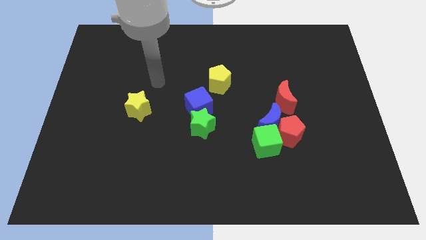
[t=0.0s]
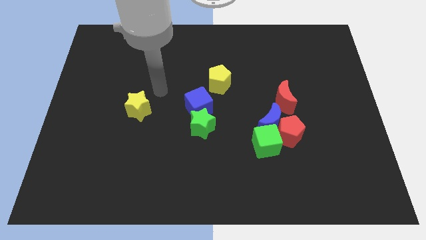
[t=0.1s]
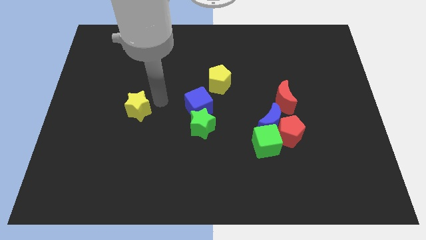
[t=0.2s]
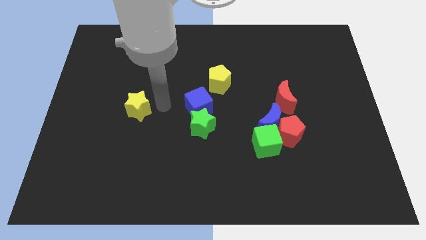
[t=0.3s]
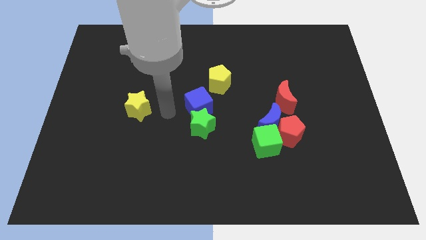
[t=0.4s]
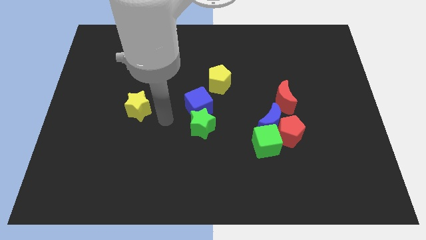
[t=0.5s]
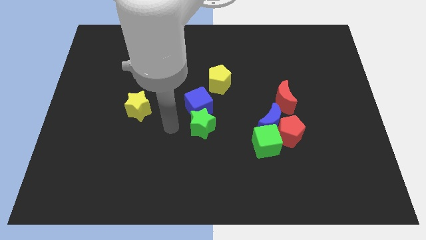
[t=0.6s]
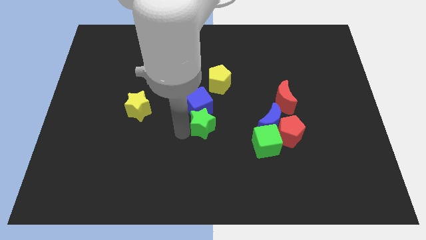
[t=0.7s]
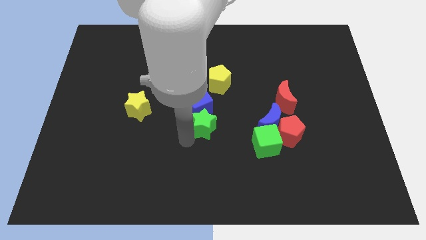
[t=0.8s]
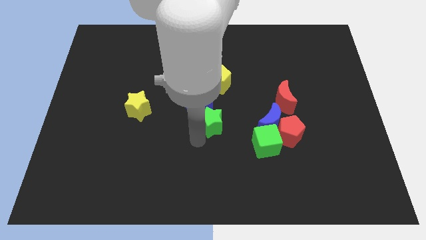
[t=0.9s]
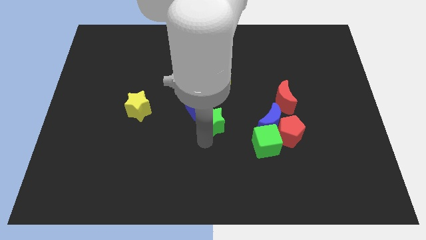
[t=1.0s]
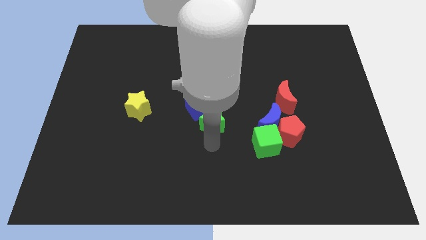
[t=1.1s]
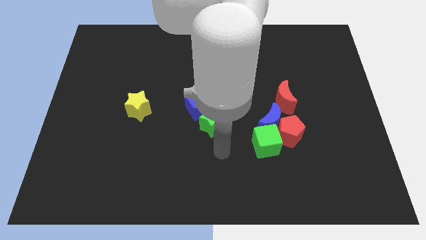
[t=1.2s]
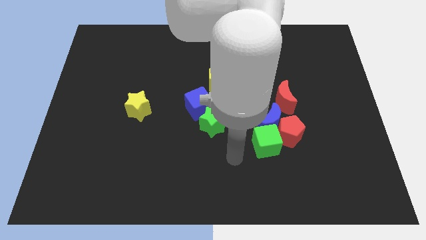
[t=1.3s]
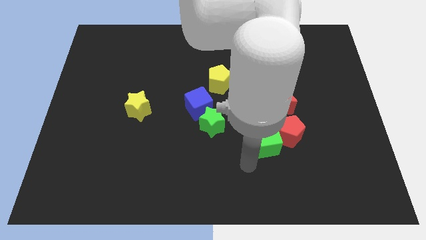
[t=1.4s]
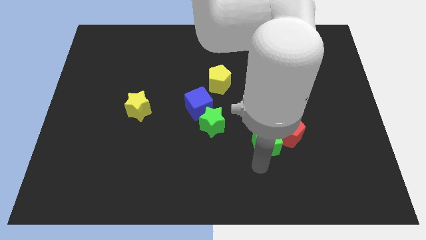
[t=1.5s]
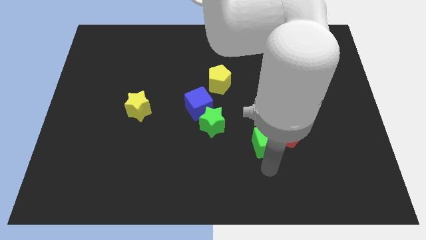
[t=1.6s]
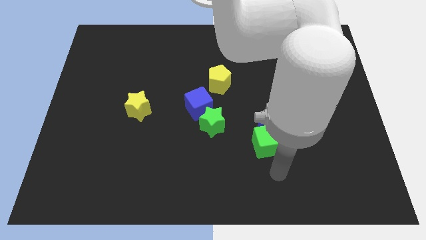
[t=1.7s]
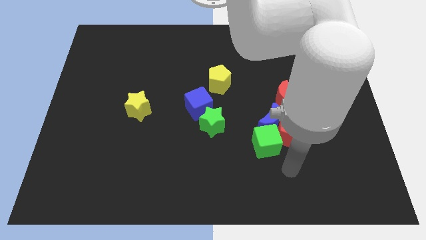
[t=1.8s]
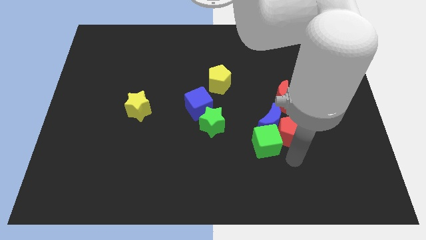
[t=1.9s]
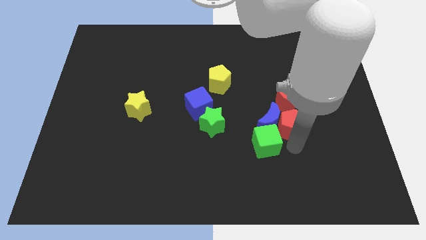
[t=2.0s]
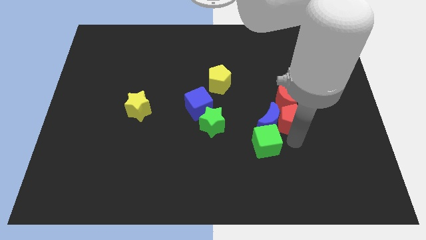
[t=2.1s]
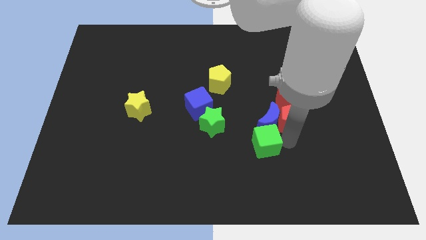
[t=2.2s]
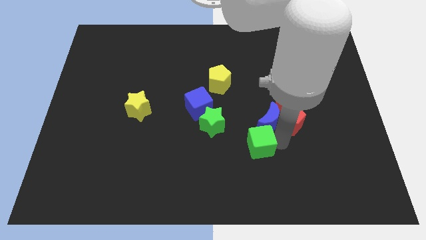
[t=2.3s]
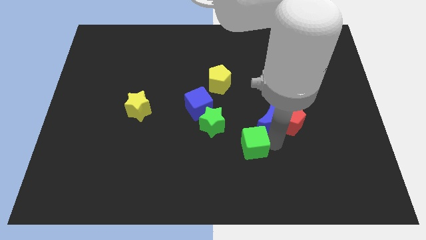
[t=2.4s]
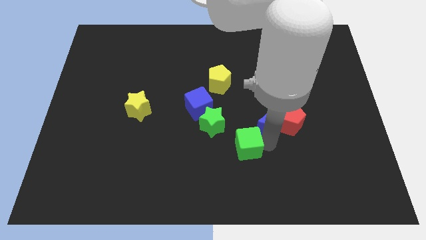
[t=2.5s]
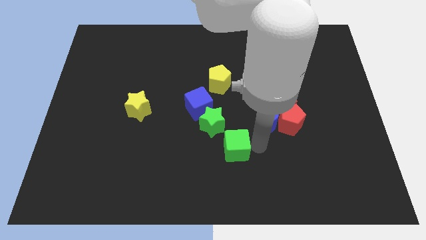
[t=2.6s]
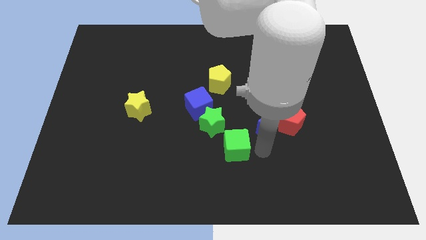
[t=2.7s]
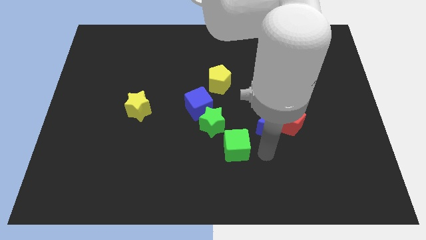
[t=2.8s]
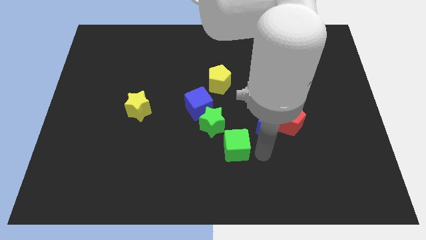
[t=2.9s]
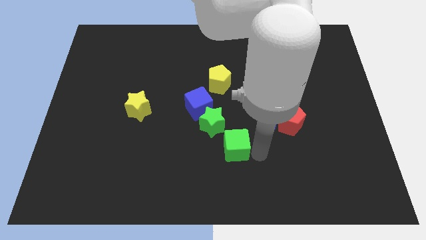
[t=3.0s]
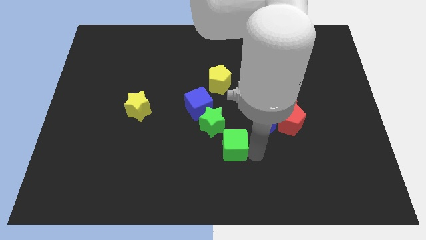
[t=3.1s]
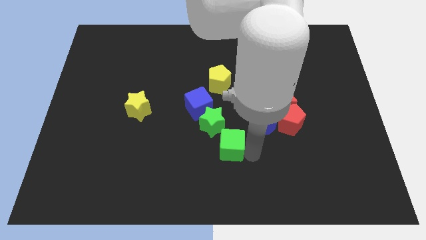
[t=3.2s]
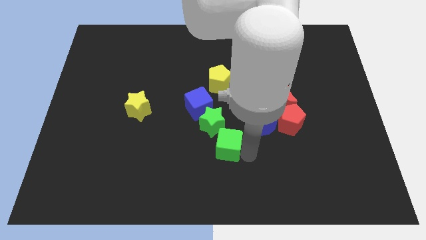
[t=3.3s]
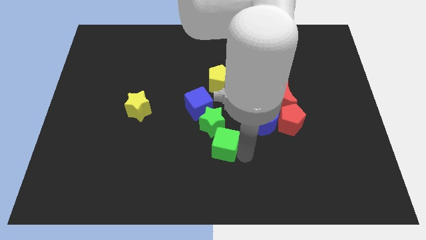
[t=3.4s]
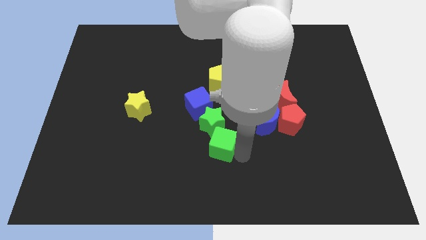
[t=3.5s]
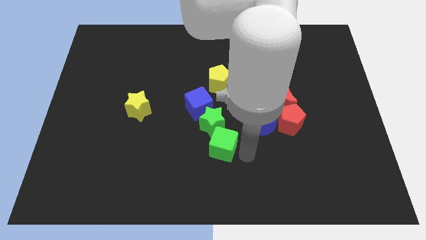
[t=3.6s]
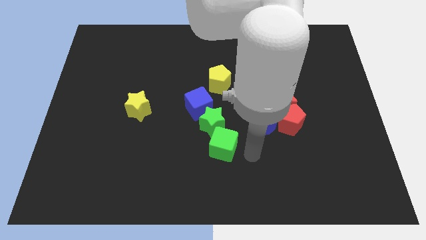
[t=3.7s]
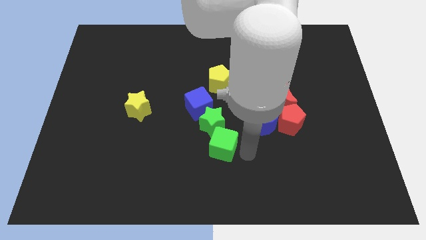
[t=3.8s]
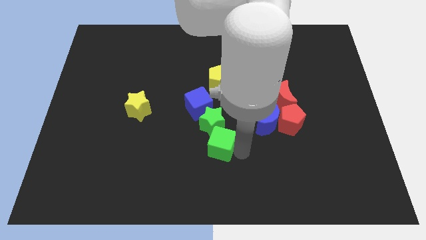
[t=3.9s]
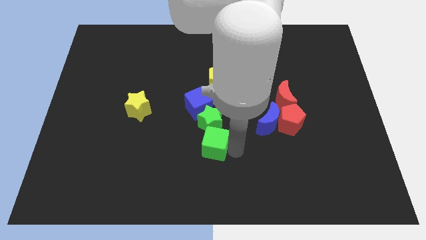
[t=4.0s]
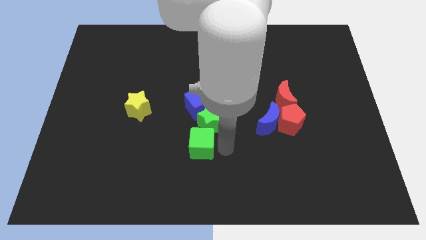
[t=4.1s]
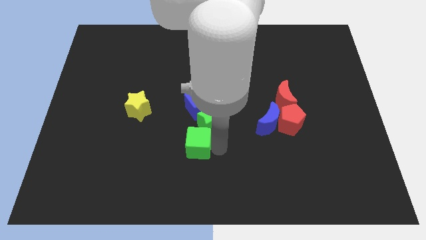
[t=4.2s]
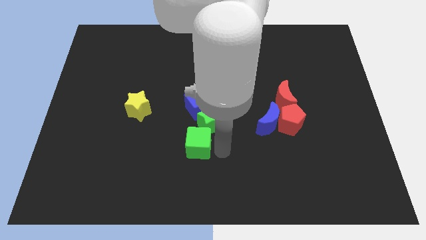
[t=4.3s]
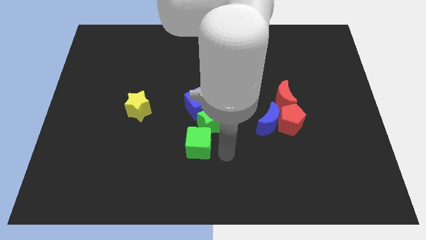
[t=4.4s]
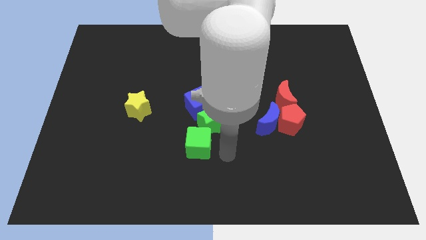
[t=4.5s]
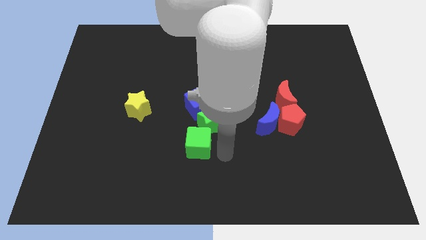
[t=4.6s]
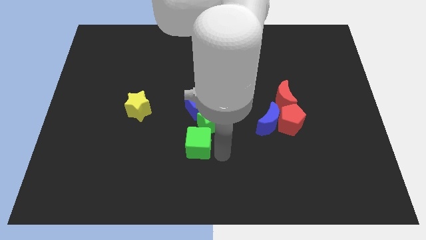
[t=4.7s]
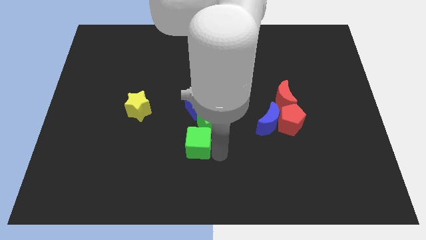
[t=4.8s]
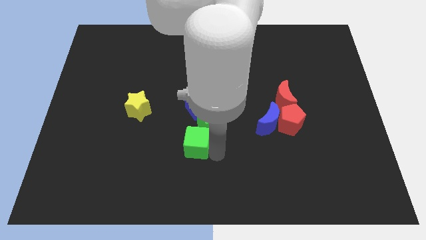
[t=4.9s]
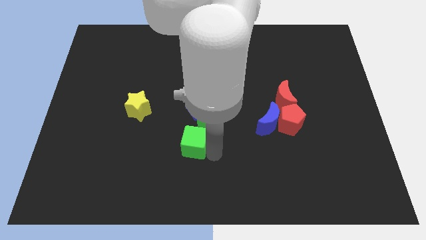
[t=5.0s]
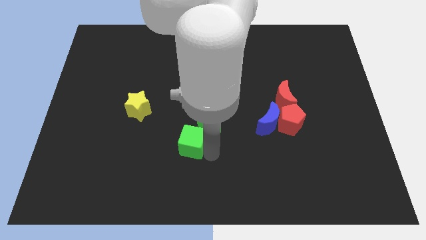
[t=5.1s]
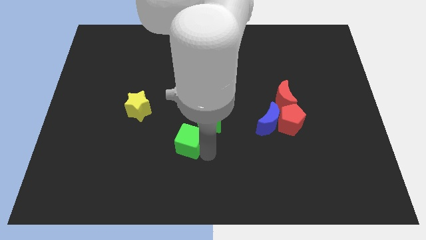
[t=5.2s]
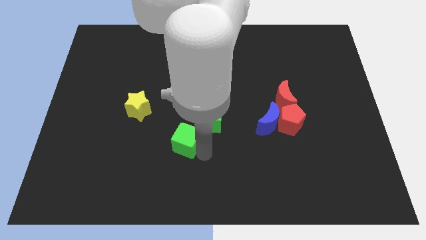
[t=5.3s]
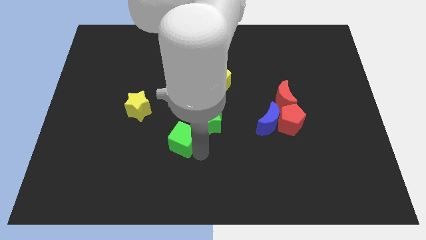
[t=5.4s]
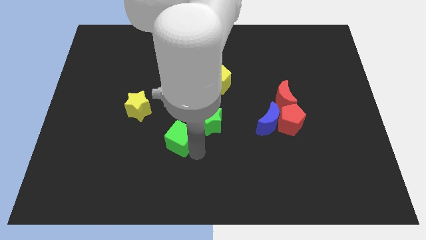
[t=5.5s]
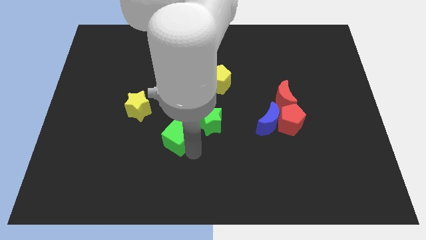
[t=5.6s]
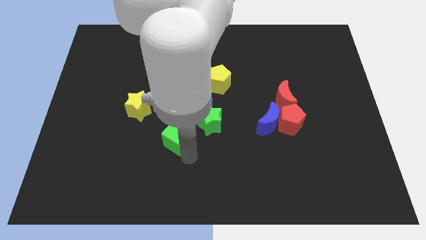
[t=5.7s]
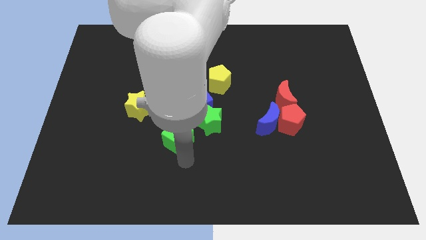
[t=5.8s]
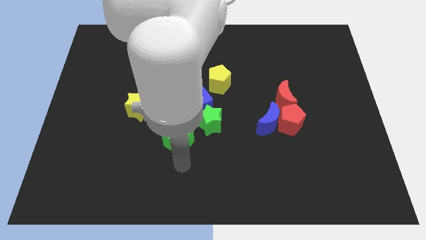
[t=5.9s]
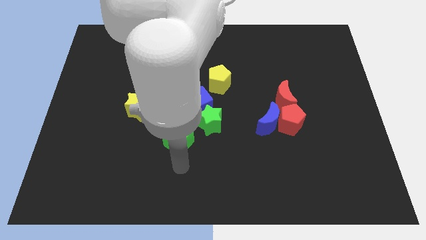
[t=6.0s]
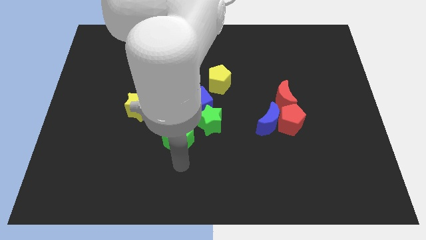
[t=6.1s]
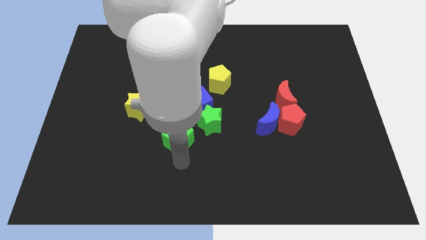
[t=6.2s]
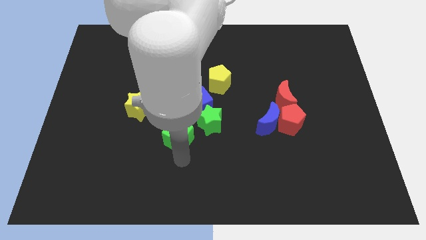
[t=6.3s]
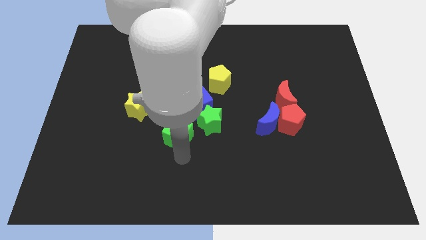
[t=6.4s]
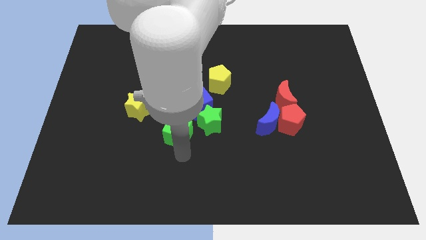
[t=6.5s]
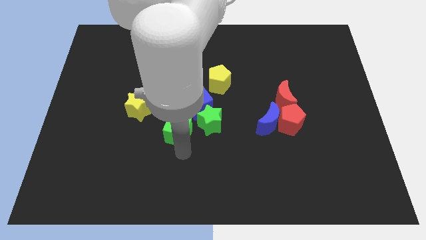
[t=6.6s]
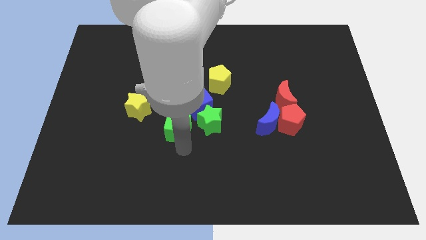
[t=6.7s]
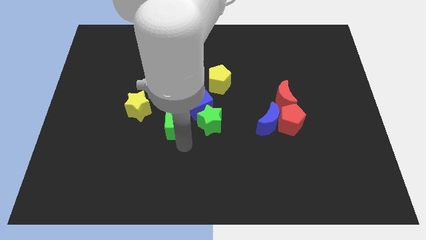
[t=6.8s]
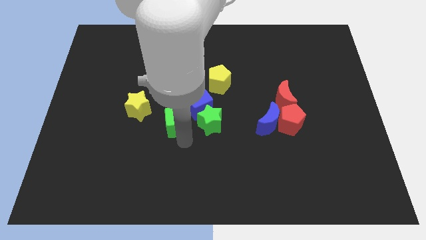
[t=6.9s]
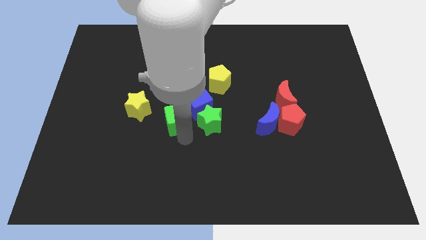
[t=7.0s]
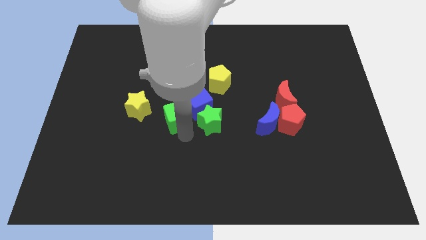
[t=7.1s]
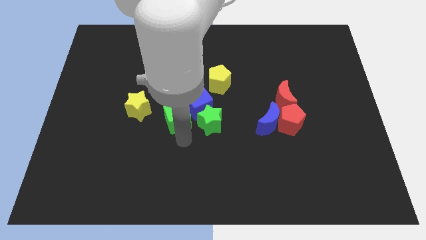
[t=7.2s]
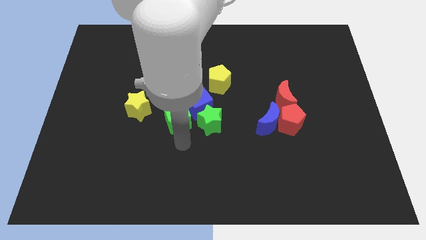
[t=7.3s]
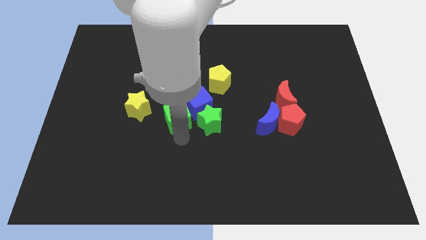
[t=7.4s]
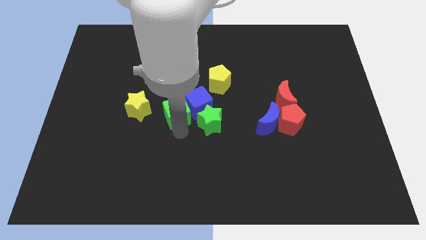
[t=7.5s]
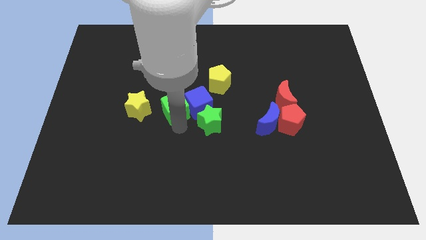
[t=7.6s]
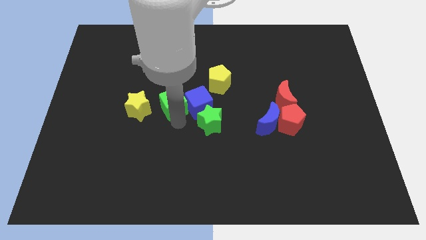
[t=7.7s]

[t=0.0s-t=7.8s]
move the green cube up and to the left diagonally
